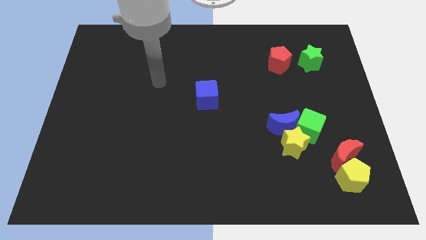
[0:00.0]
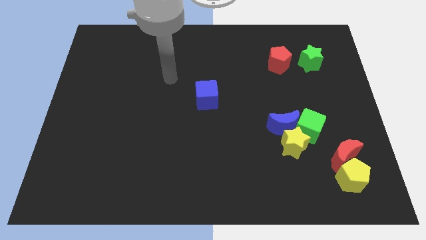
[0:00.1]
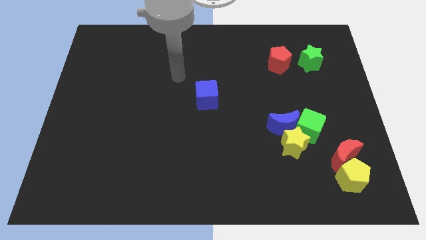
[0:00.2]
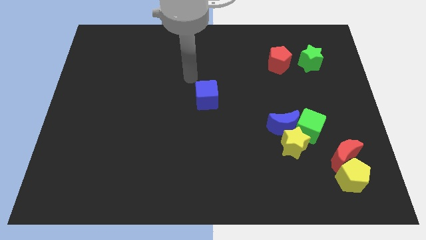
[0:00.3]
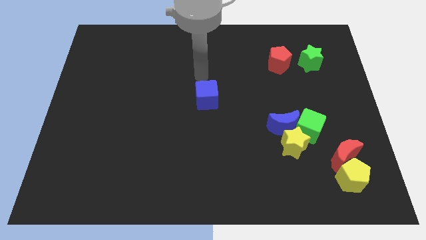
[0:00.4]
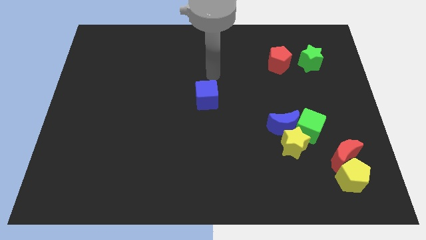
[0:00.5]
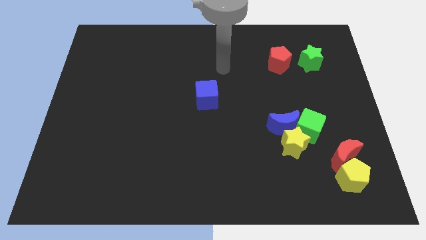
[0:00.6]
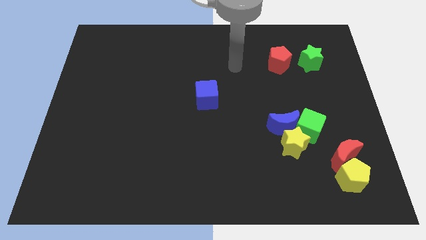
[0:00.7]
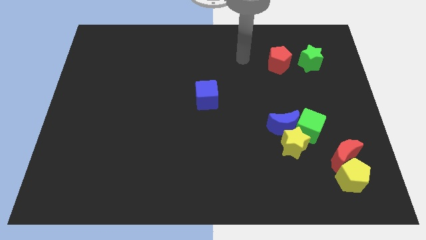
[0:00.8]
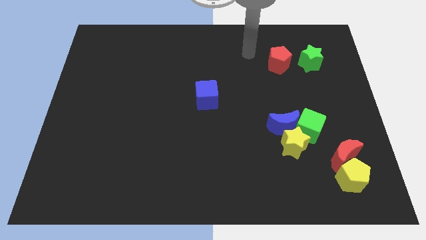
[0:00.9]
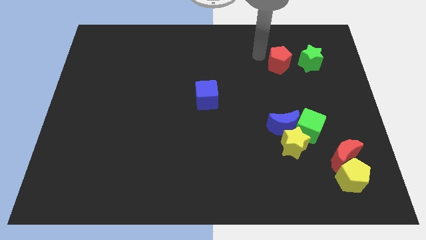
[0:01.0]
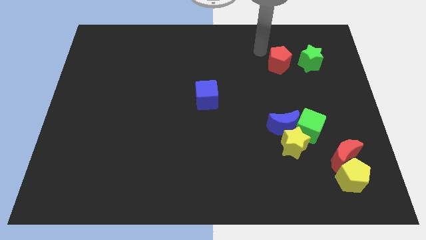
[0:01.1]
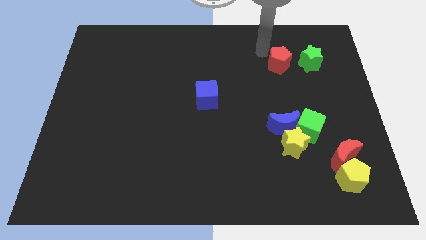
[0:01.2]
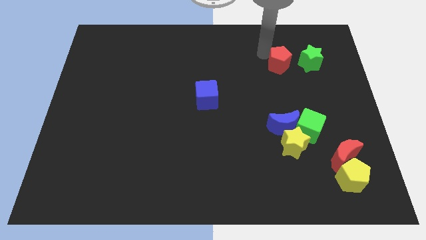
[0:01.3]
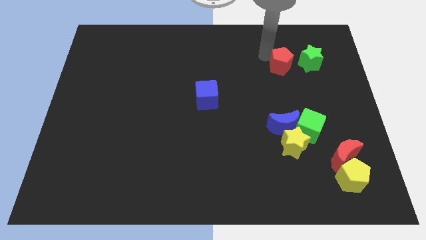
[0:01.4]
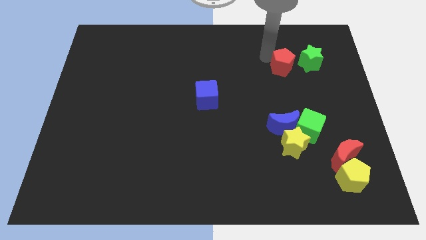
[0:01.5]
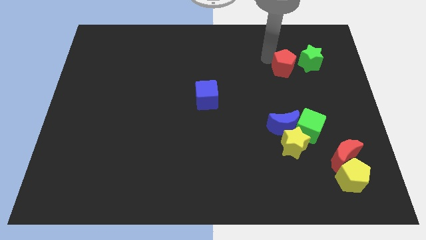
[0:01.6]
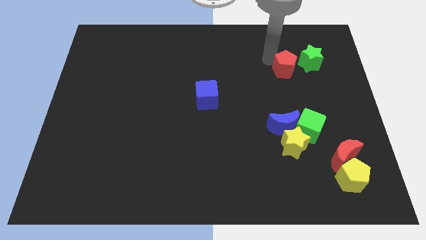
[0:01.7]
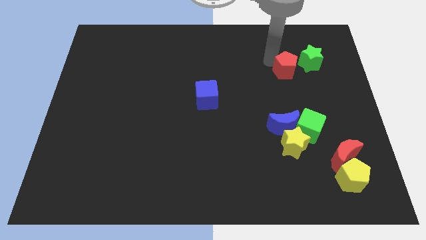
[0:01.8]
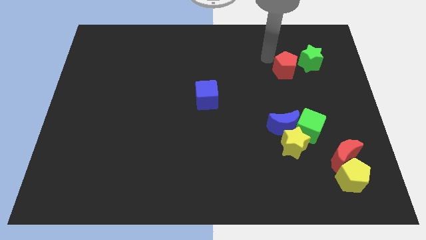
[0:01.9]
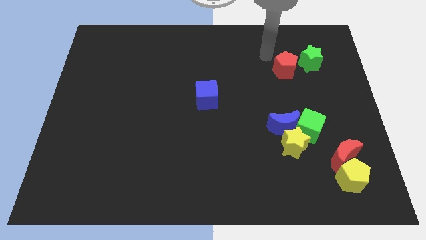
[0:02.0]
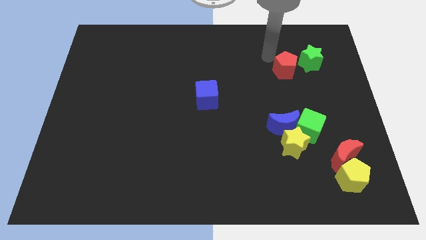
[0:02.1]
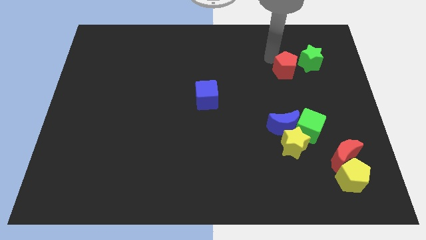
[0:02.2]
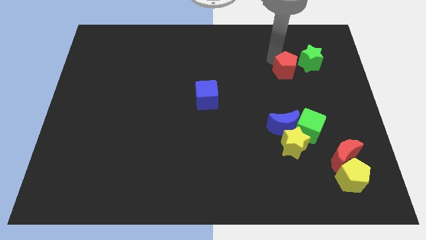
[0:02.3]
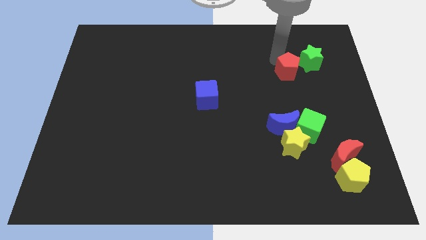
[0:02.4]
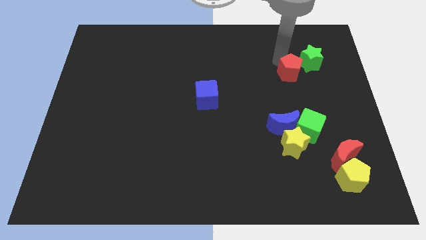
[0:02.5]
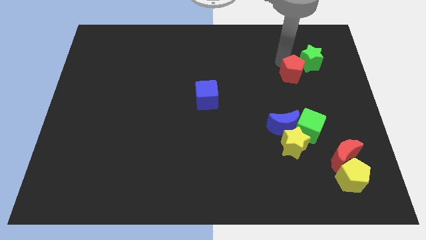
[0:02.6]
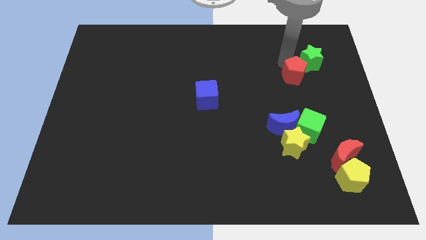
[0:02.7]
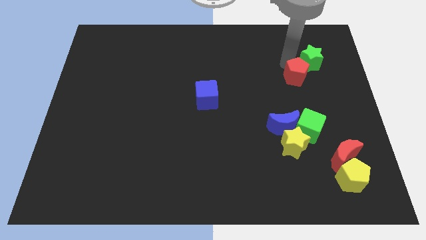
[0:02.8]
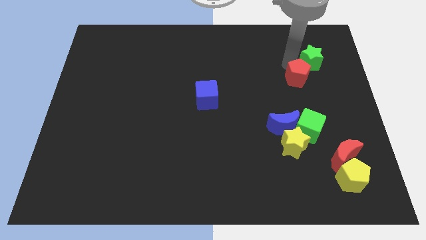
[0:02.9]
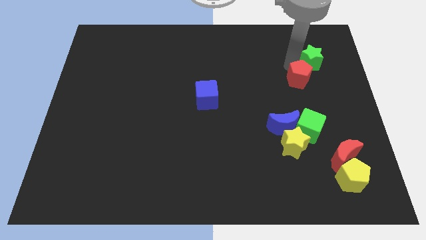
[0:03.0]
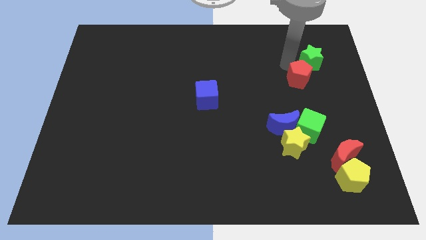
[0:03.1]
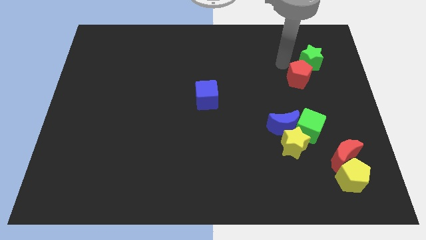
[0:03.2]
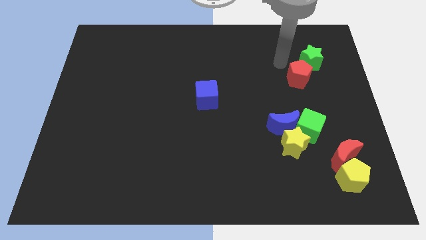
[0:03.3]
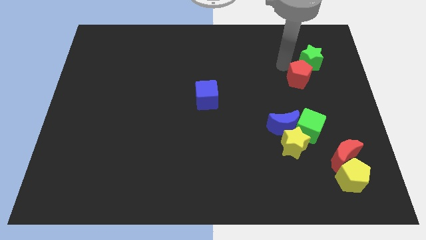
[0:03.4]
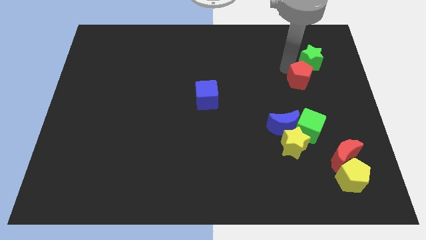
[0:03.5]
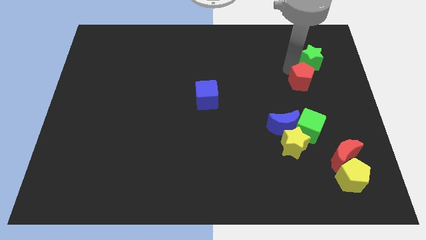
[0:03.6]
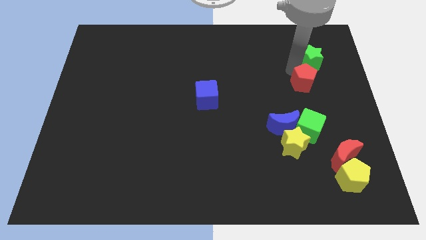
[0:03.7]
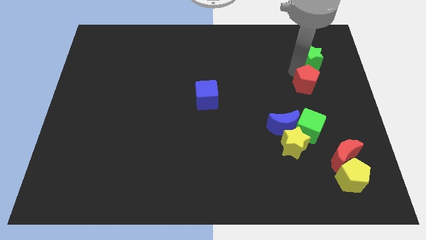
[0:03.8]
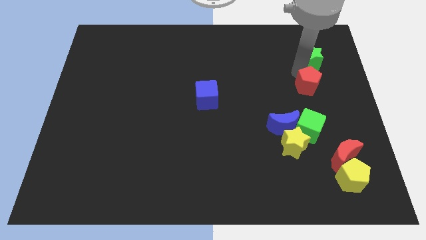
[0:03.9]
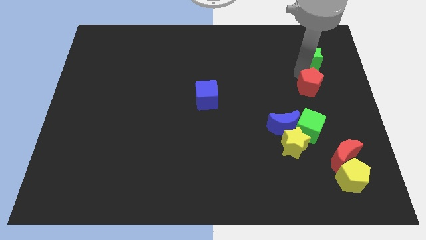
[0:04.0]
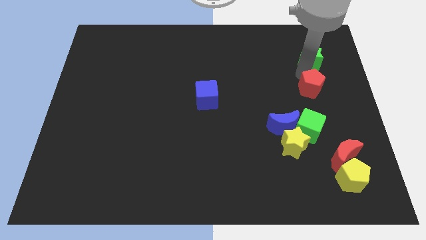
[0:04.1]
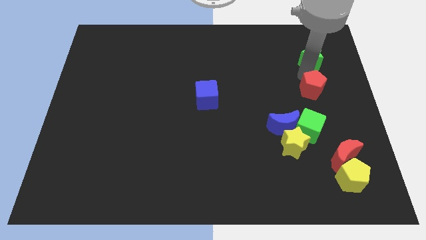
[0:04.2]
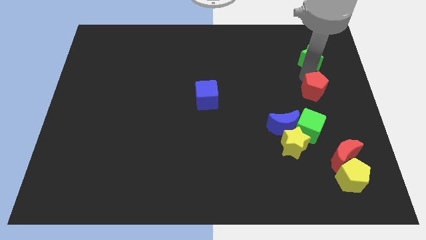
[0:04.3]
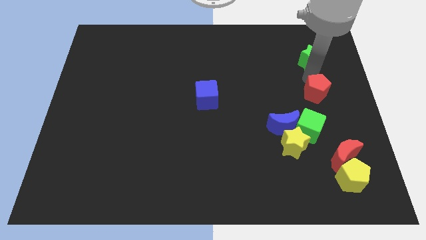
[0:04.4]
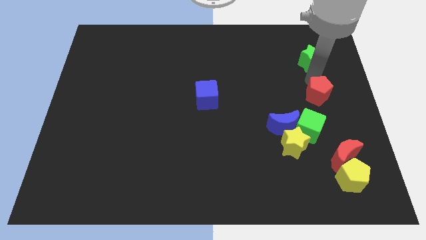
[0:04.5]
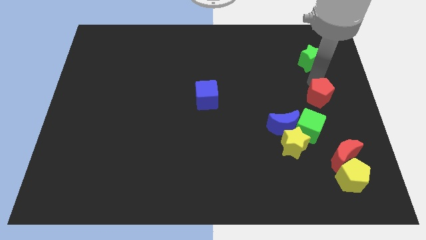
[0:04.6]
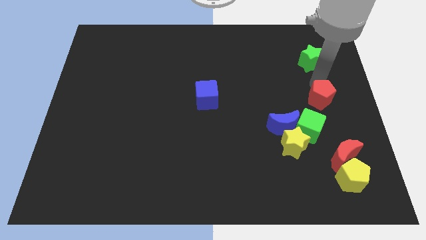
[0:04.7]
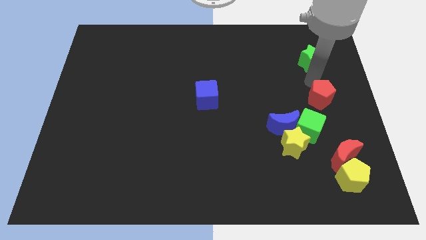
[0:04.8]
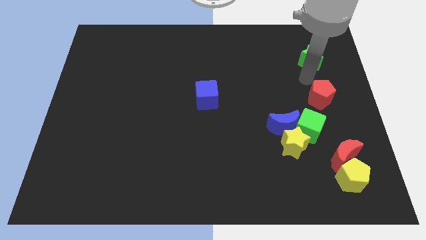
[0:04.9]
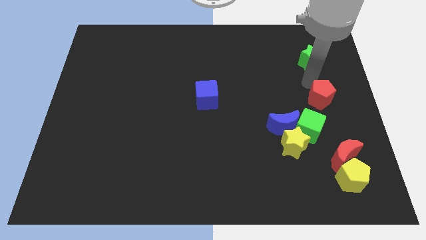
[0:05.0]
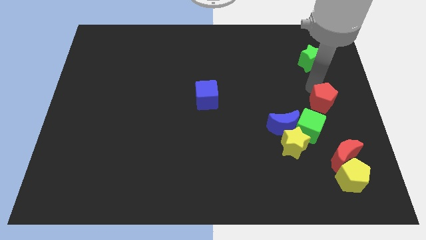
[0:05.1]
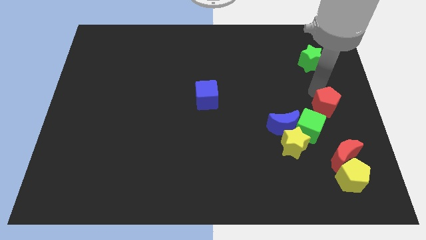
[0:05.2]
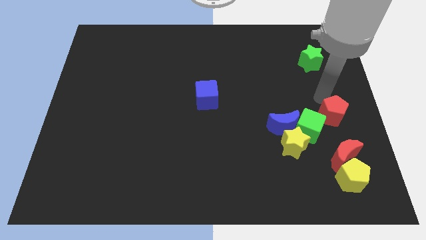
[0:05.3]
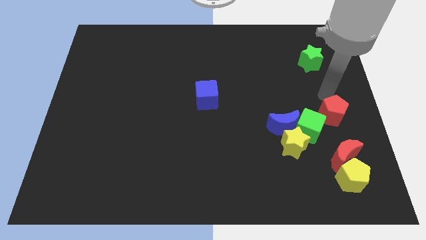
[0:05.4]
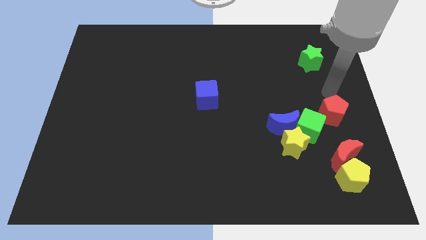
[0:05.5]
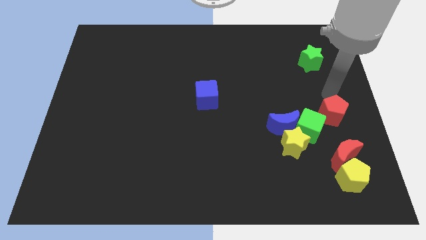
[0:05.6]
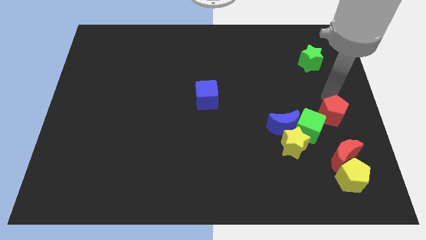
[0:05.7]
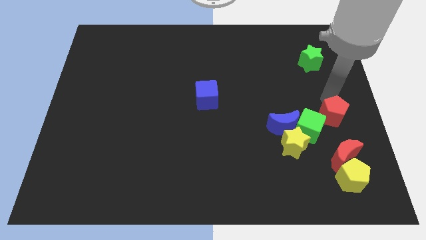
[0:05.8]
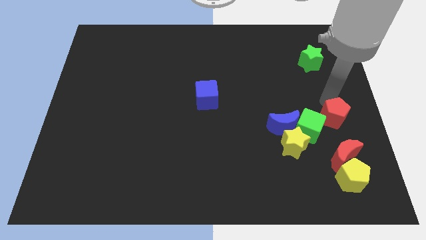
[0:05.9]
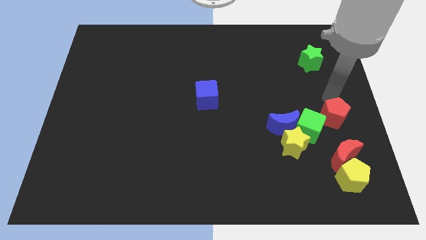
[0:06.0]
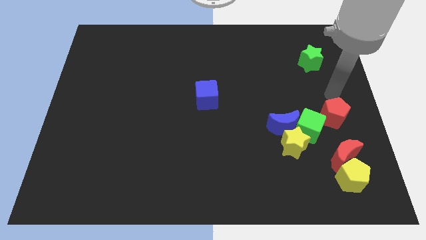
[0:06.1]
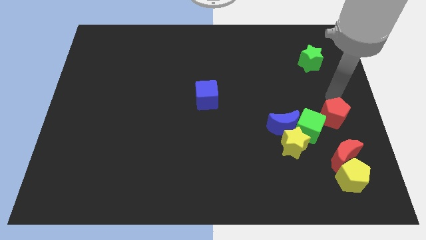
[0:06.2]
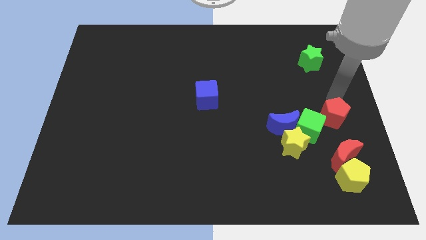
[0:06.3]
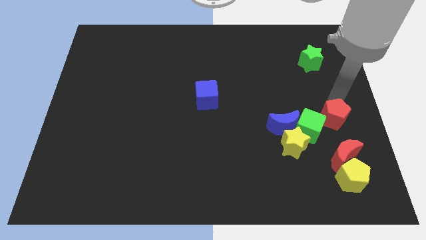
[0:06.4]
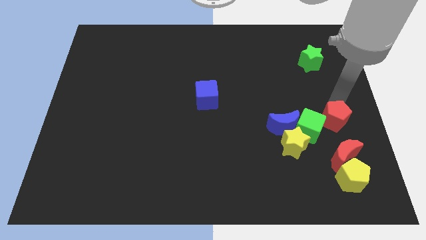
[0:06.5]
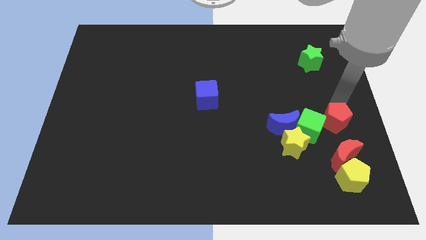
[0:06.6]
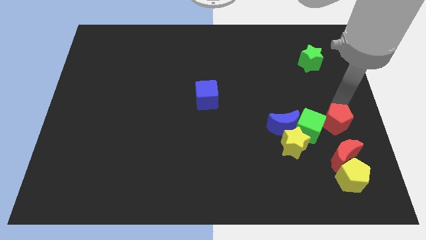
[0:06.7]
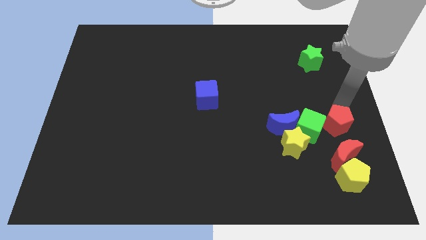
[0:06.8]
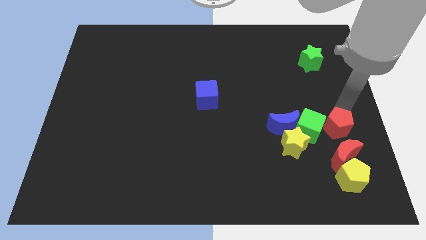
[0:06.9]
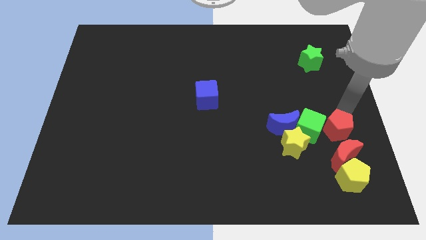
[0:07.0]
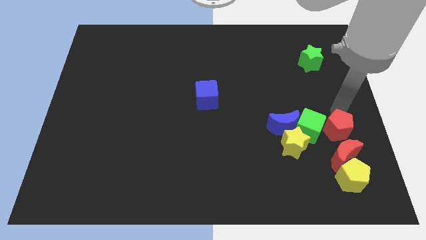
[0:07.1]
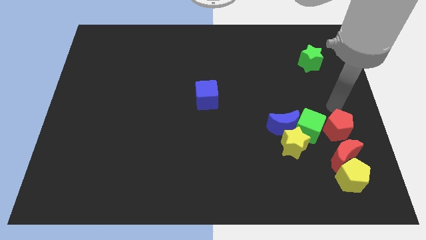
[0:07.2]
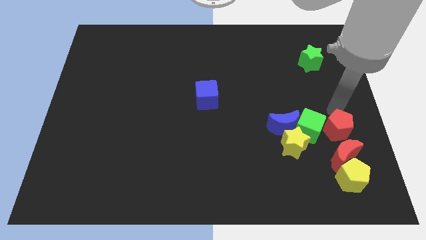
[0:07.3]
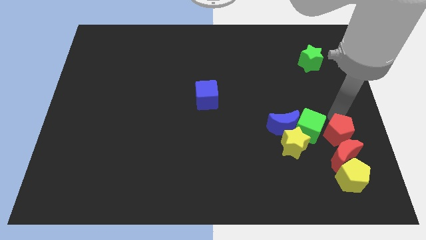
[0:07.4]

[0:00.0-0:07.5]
slide the red pentagon towards the red moon
